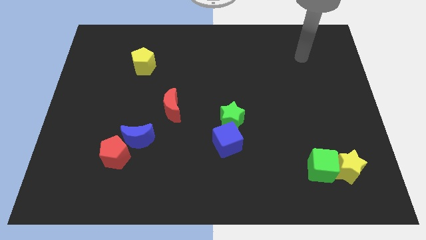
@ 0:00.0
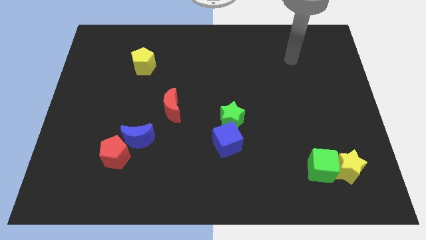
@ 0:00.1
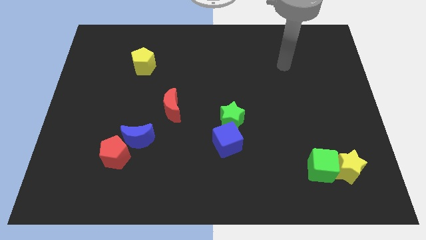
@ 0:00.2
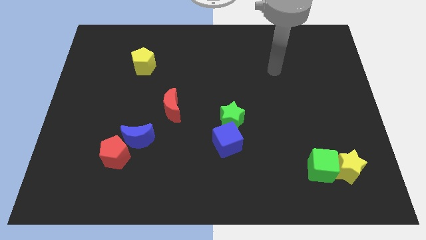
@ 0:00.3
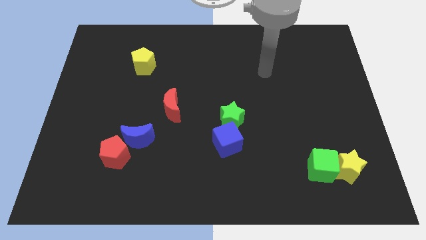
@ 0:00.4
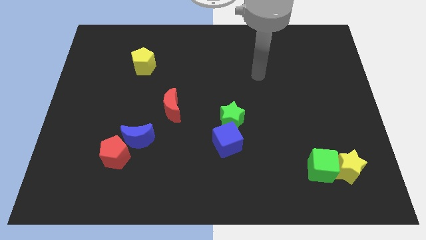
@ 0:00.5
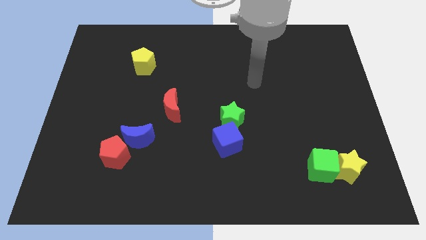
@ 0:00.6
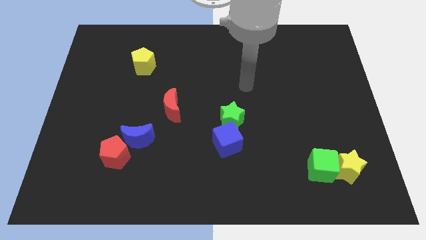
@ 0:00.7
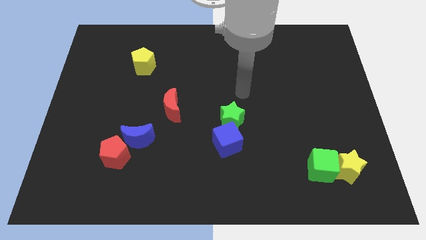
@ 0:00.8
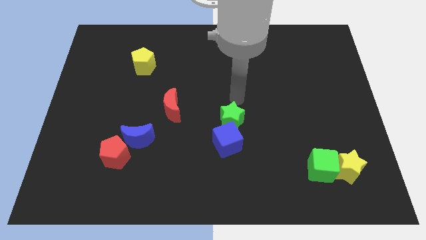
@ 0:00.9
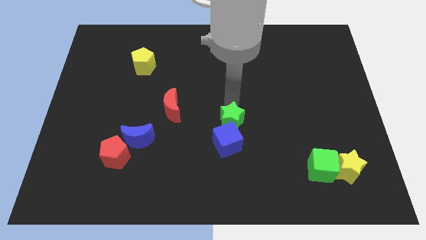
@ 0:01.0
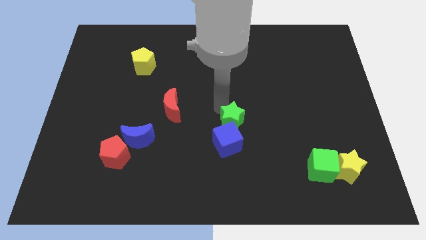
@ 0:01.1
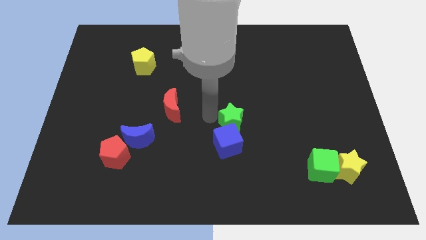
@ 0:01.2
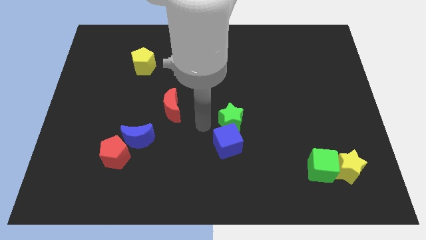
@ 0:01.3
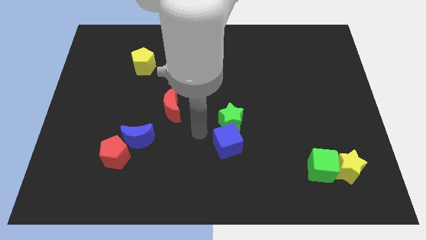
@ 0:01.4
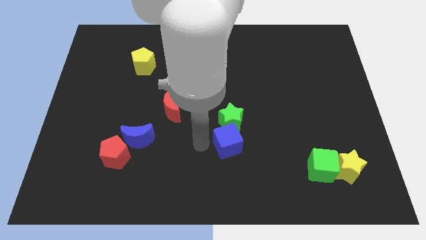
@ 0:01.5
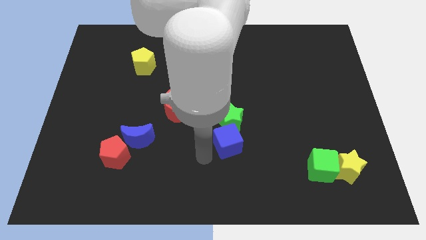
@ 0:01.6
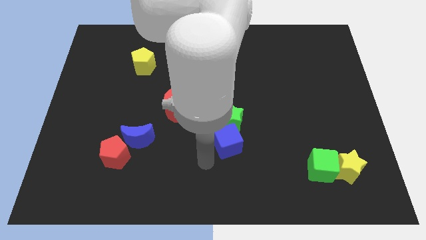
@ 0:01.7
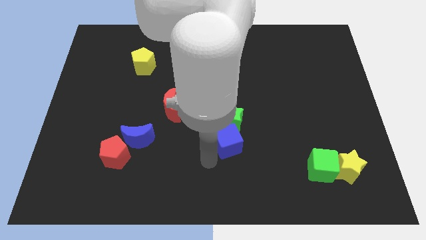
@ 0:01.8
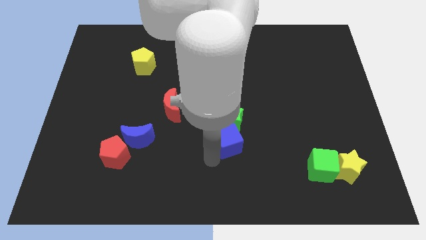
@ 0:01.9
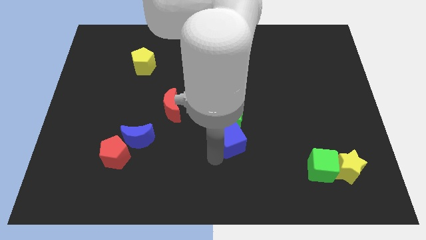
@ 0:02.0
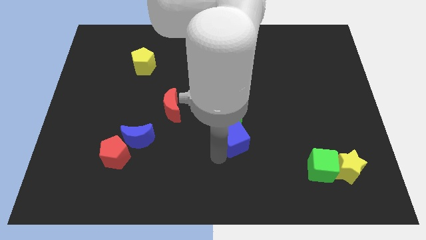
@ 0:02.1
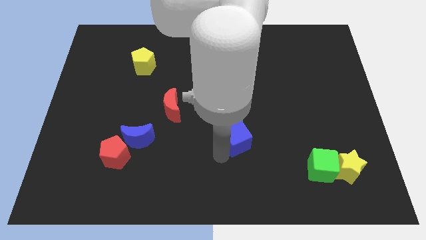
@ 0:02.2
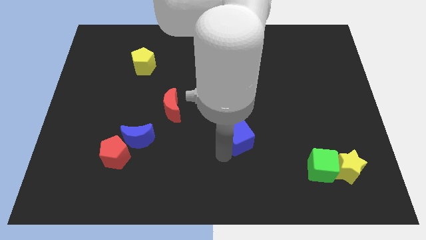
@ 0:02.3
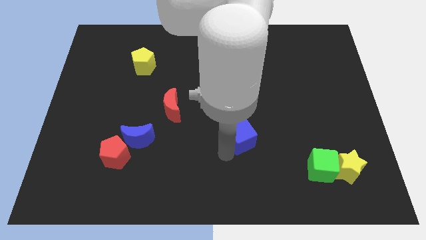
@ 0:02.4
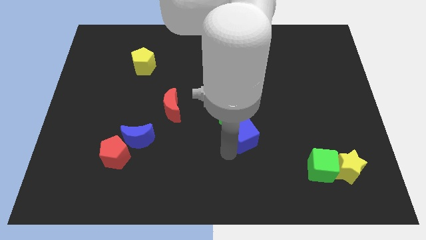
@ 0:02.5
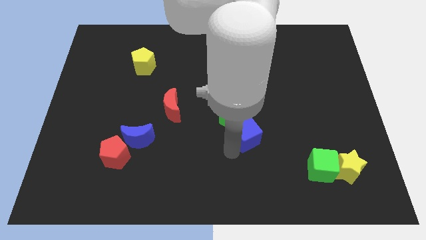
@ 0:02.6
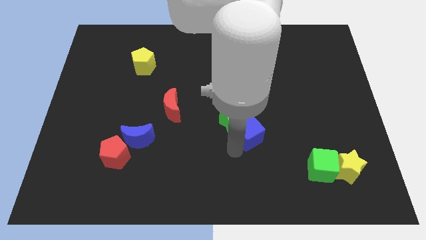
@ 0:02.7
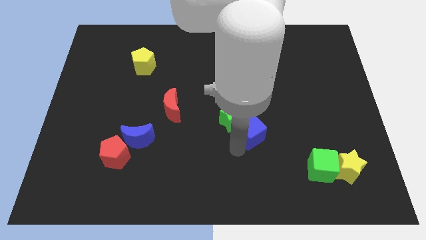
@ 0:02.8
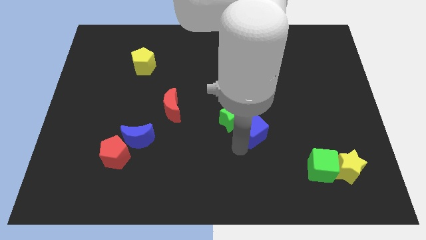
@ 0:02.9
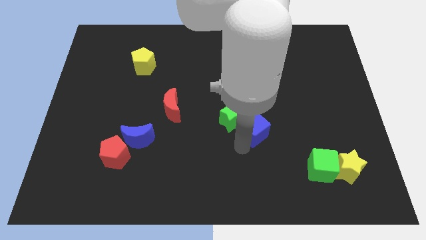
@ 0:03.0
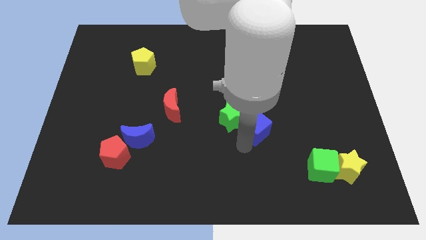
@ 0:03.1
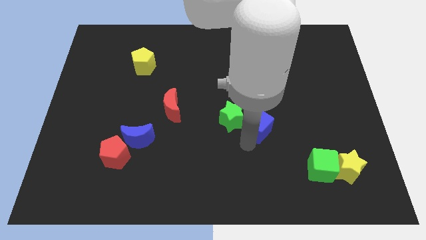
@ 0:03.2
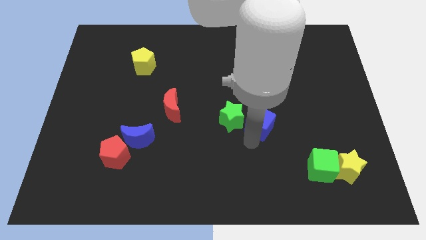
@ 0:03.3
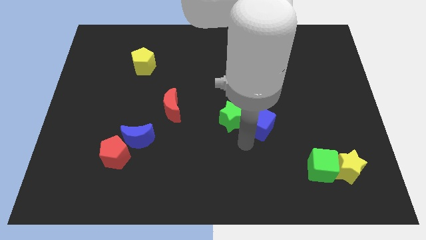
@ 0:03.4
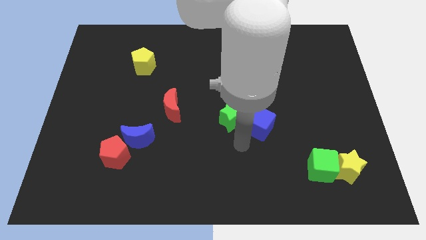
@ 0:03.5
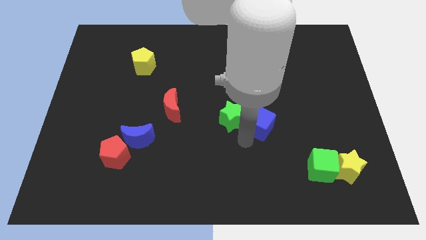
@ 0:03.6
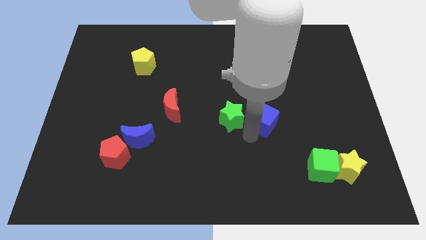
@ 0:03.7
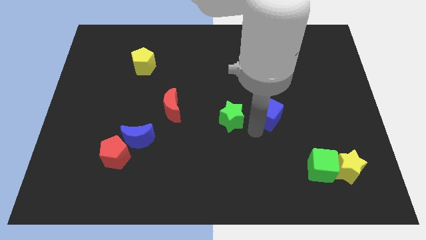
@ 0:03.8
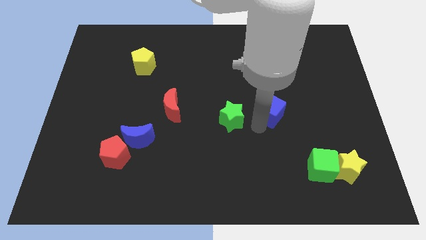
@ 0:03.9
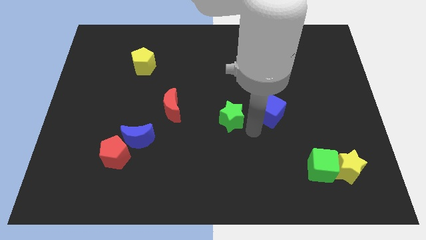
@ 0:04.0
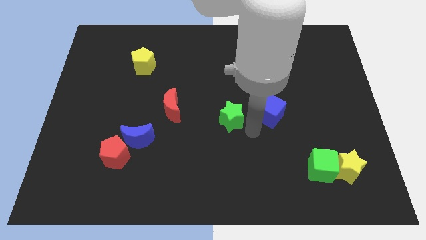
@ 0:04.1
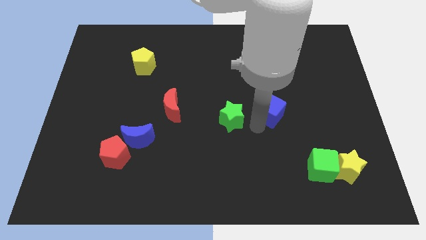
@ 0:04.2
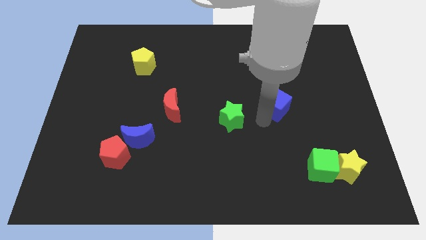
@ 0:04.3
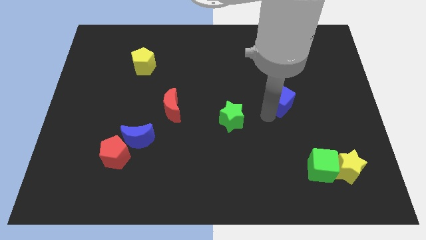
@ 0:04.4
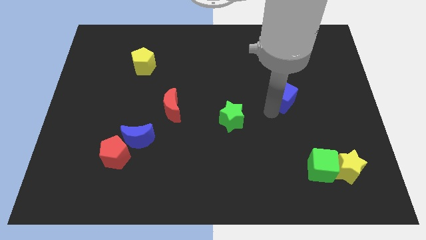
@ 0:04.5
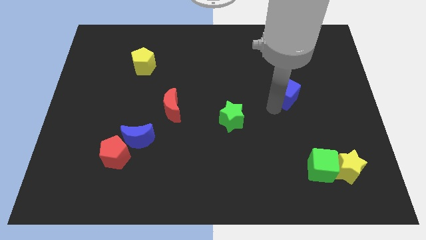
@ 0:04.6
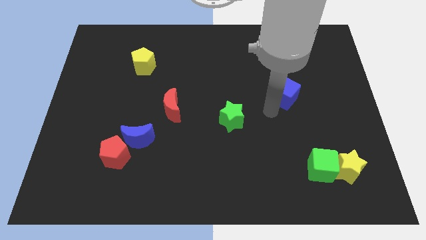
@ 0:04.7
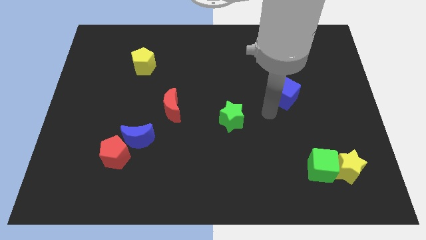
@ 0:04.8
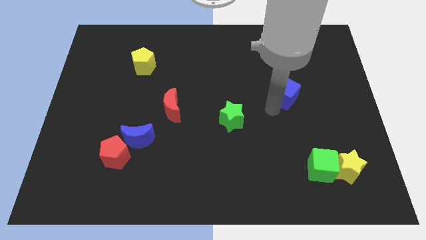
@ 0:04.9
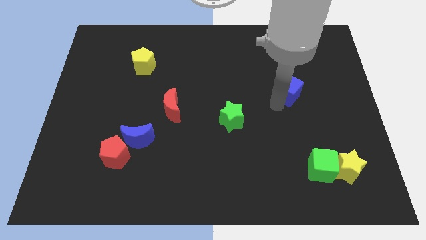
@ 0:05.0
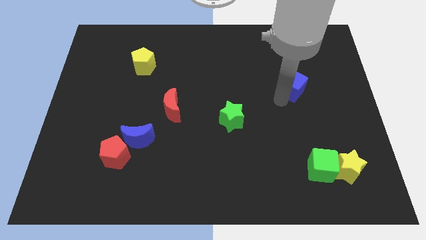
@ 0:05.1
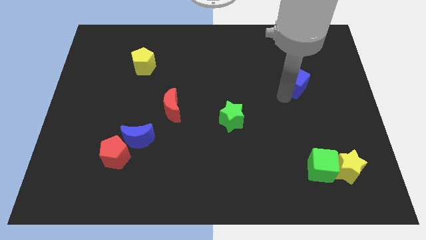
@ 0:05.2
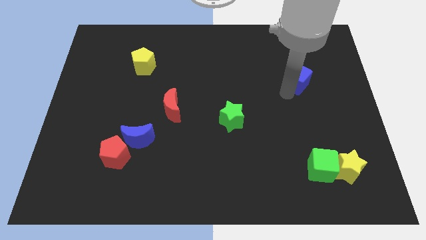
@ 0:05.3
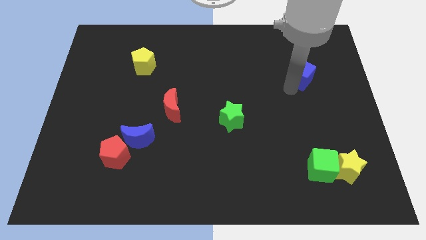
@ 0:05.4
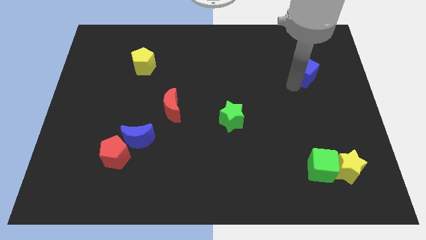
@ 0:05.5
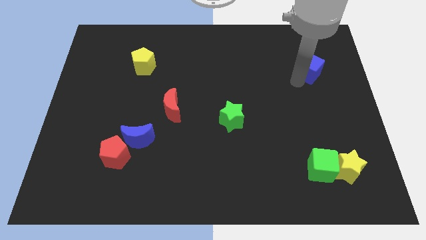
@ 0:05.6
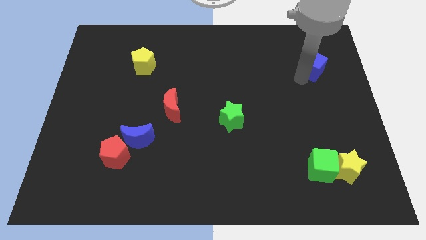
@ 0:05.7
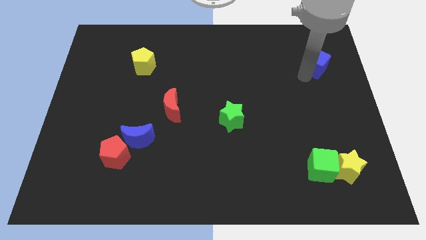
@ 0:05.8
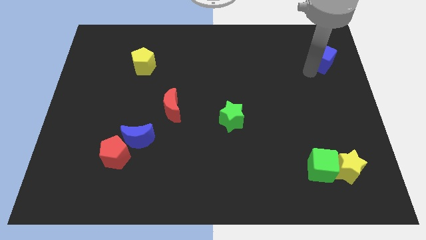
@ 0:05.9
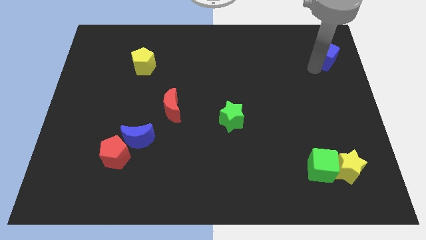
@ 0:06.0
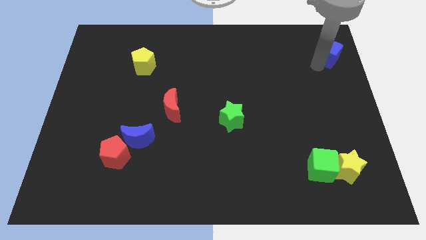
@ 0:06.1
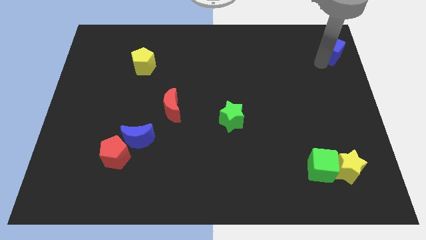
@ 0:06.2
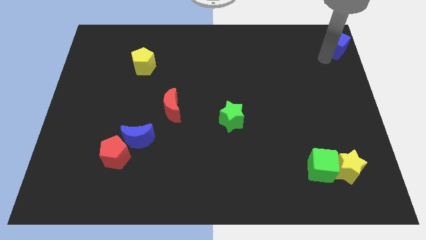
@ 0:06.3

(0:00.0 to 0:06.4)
slide the blue cube to the upper right corner
